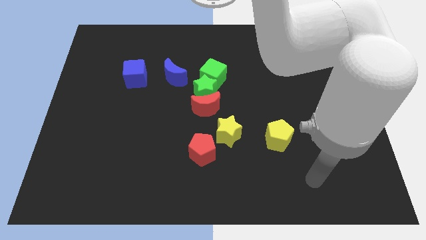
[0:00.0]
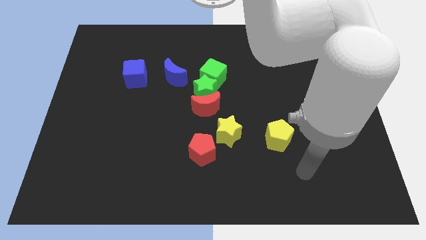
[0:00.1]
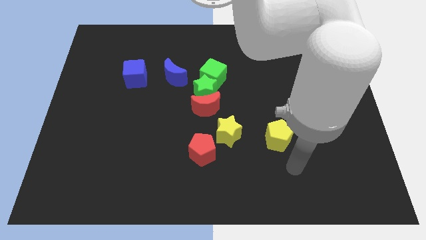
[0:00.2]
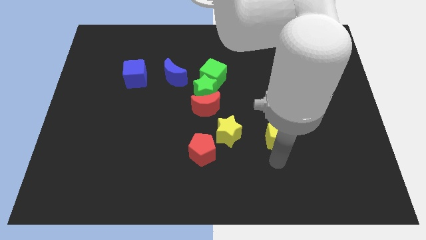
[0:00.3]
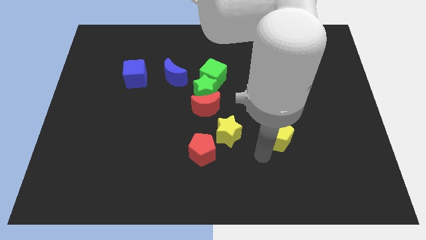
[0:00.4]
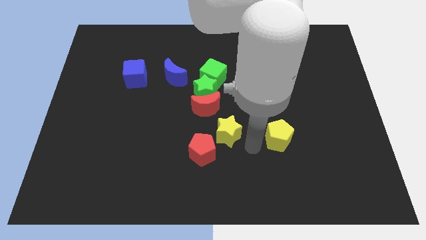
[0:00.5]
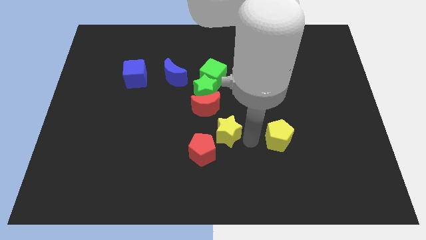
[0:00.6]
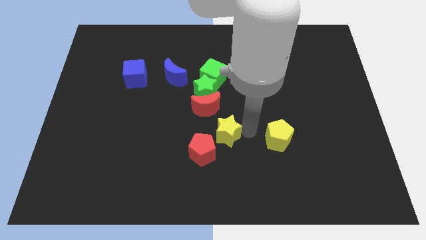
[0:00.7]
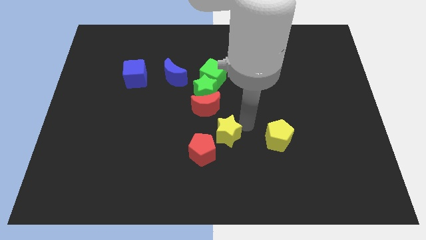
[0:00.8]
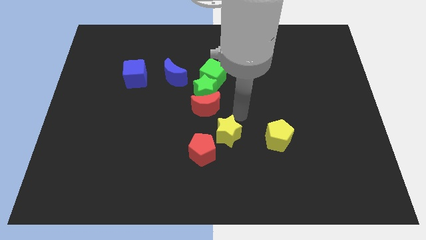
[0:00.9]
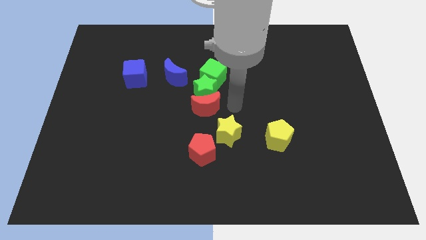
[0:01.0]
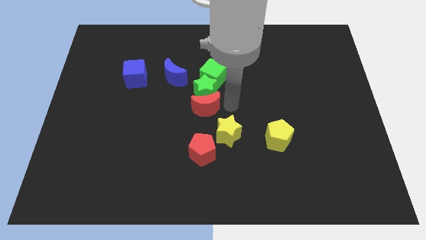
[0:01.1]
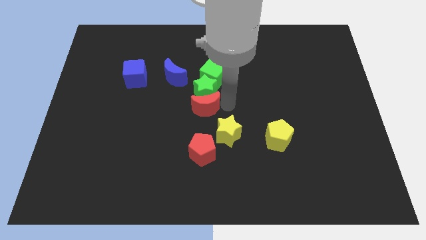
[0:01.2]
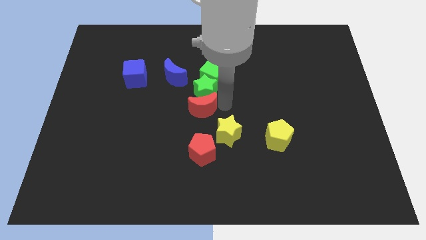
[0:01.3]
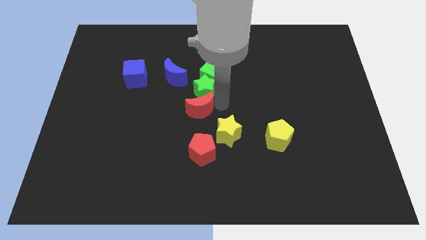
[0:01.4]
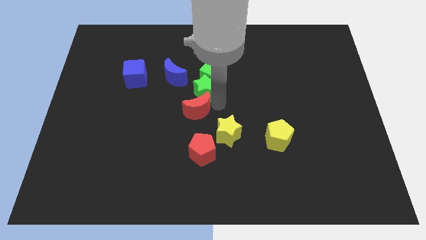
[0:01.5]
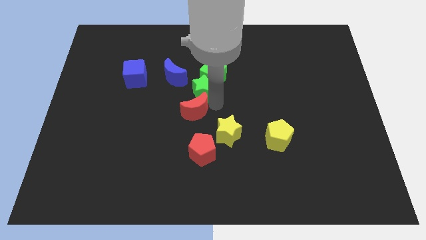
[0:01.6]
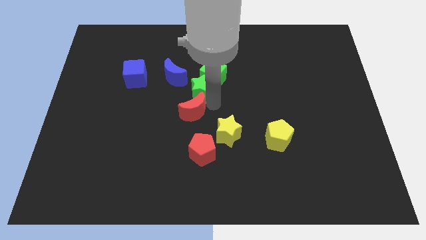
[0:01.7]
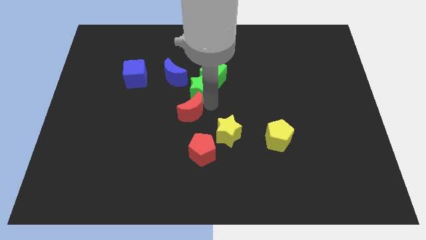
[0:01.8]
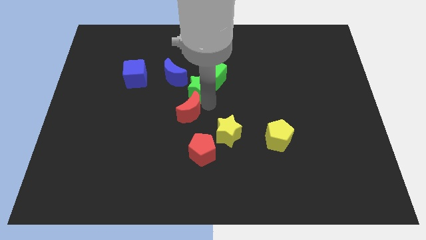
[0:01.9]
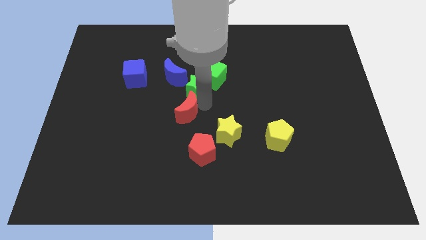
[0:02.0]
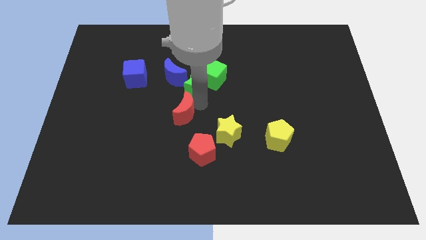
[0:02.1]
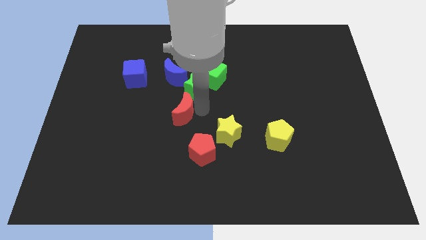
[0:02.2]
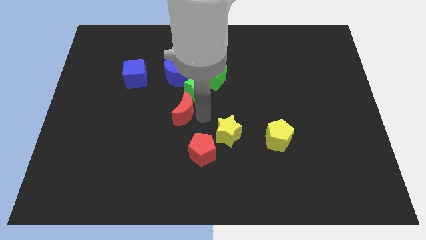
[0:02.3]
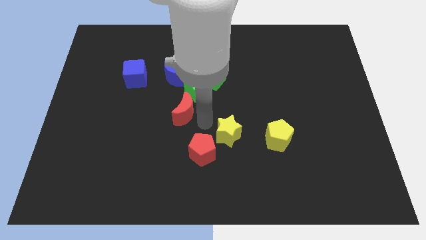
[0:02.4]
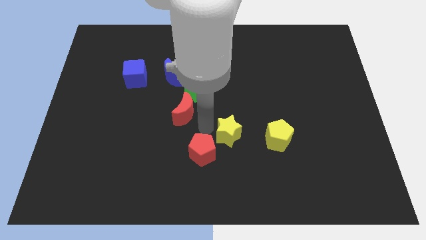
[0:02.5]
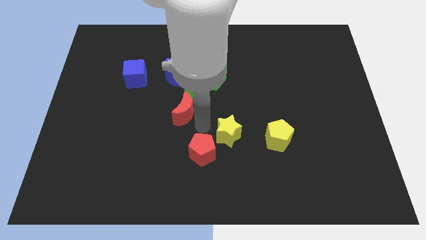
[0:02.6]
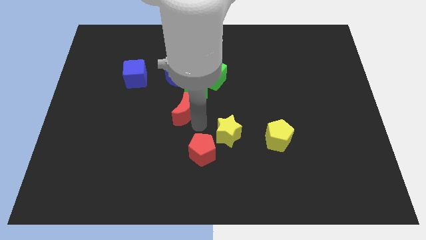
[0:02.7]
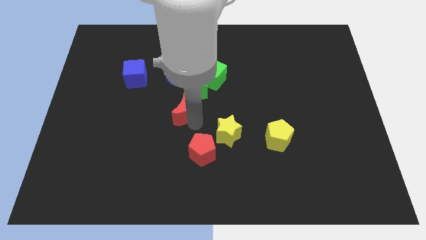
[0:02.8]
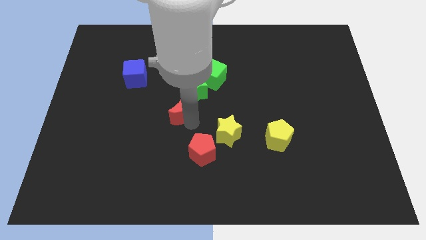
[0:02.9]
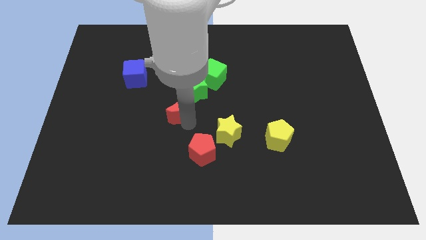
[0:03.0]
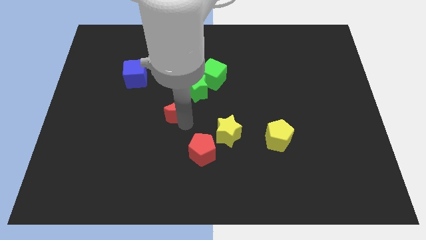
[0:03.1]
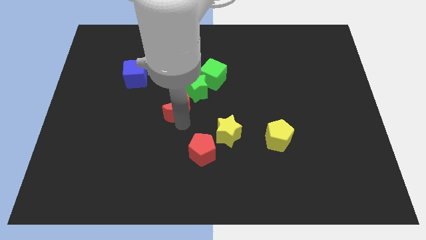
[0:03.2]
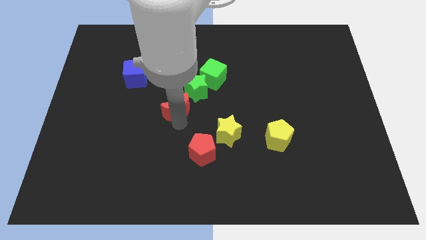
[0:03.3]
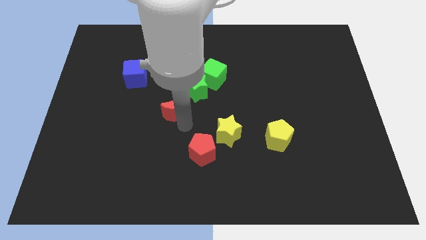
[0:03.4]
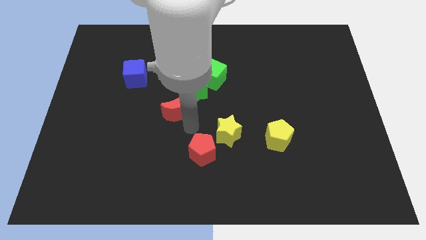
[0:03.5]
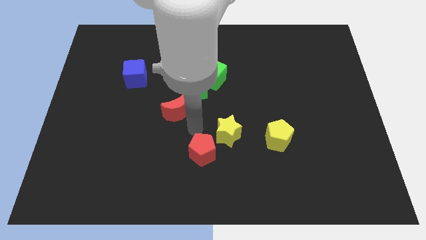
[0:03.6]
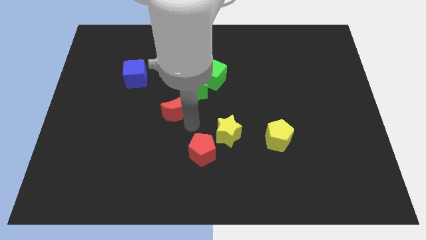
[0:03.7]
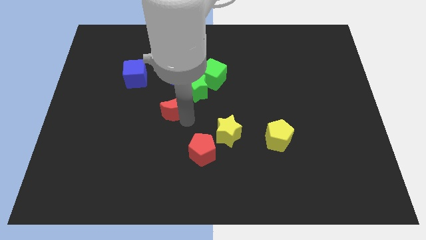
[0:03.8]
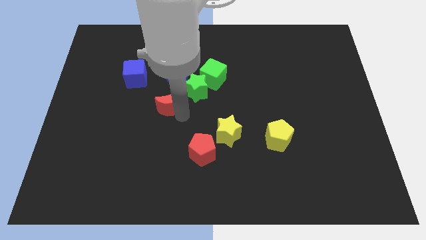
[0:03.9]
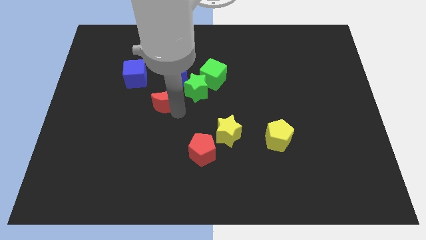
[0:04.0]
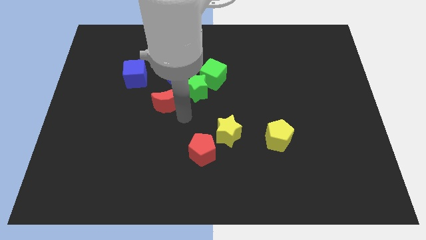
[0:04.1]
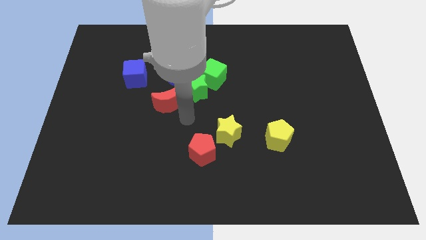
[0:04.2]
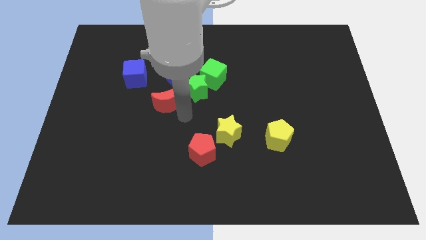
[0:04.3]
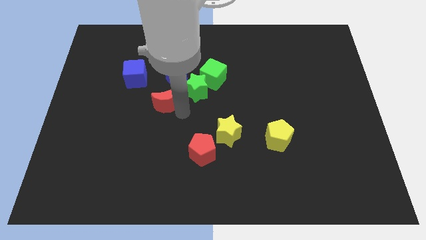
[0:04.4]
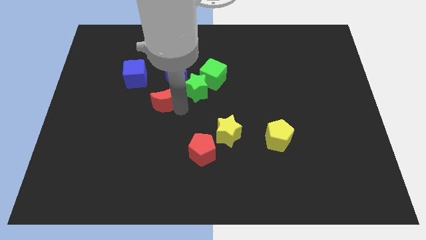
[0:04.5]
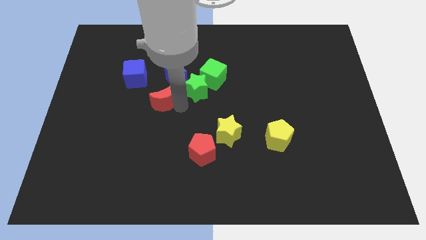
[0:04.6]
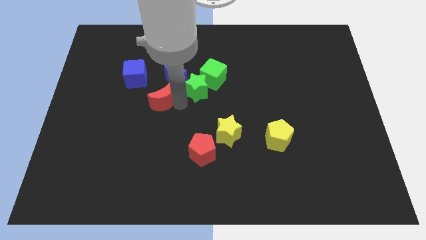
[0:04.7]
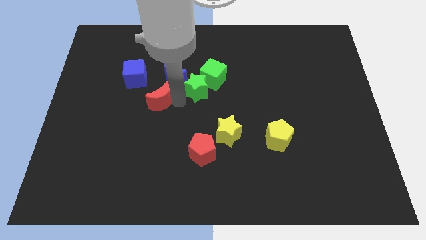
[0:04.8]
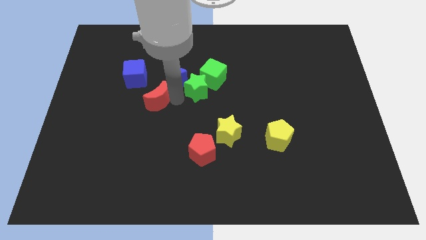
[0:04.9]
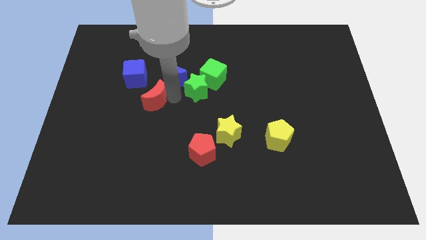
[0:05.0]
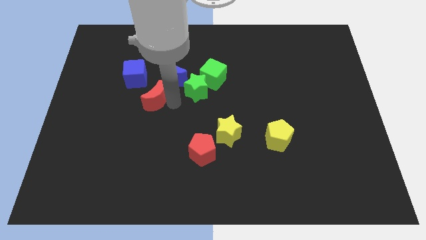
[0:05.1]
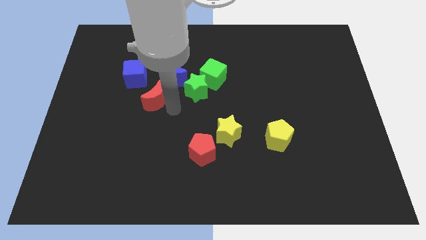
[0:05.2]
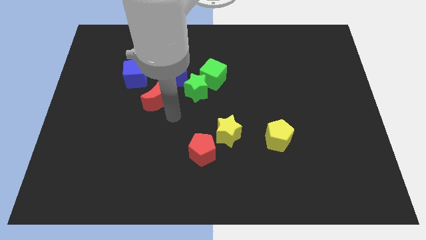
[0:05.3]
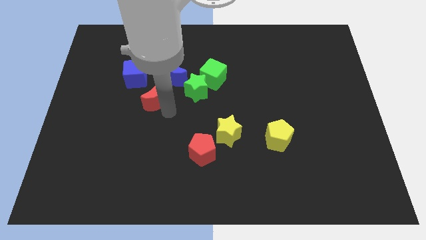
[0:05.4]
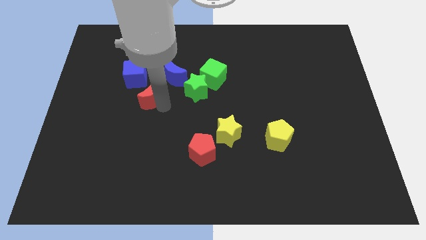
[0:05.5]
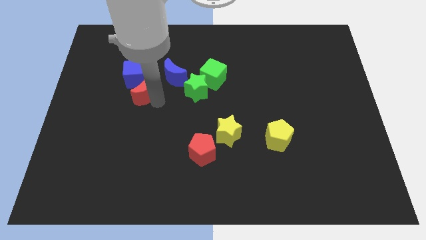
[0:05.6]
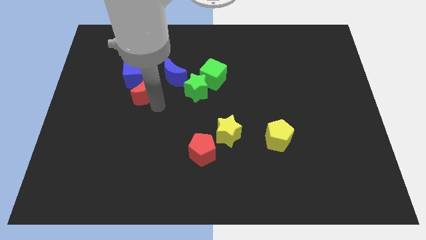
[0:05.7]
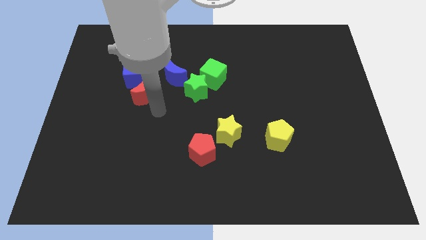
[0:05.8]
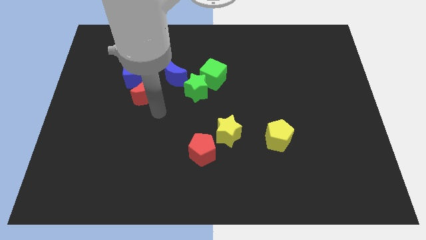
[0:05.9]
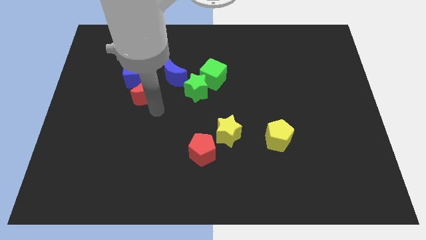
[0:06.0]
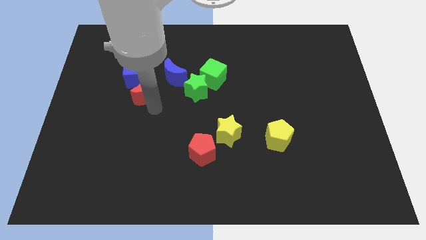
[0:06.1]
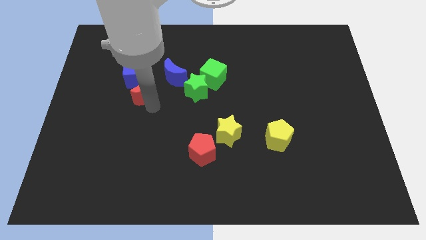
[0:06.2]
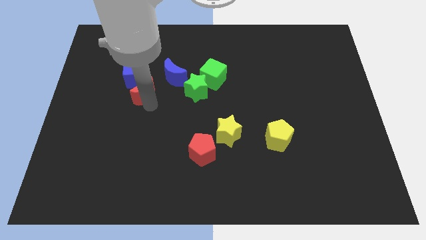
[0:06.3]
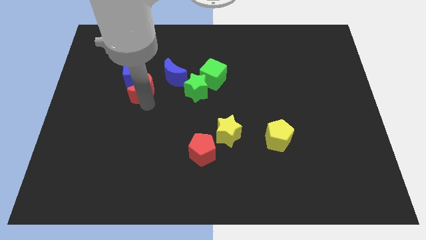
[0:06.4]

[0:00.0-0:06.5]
slide the red moon to the blue cube
